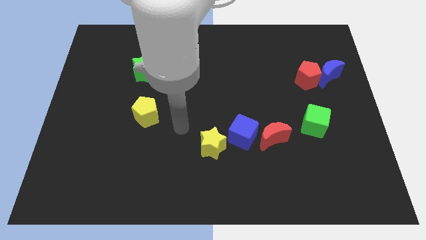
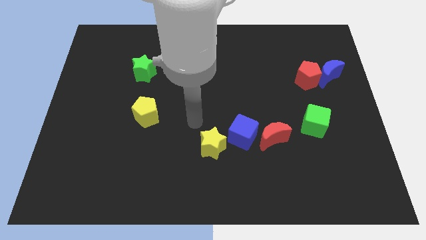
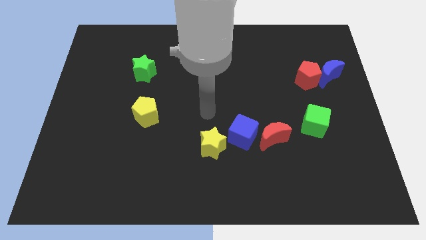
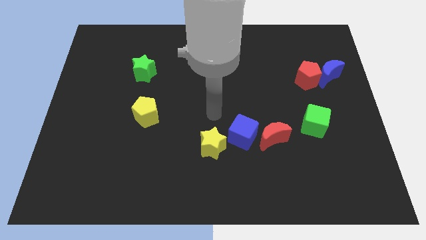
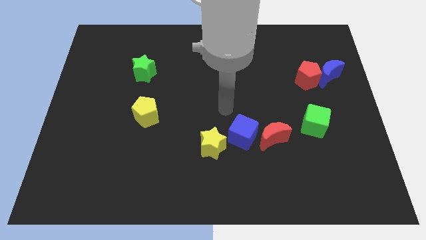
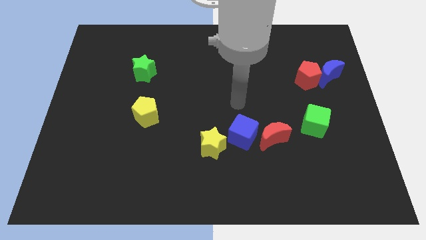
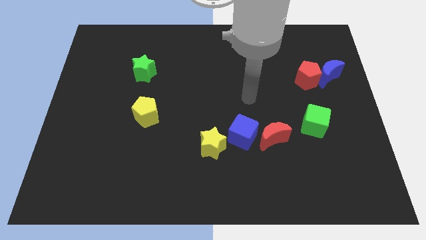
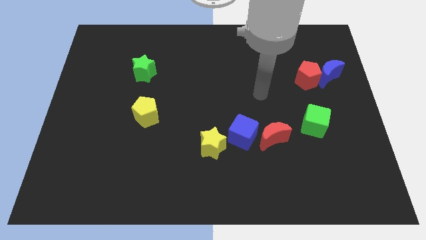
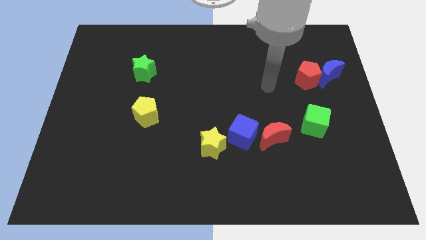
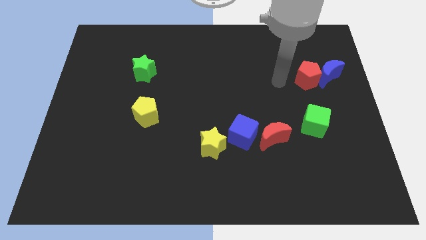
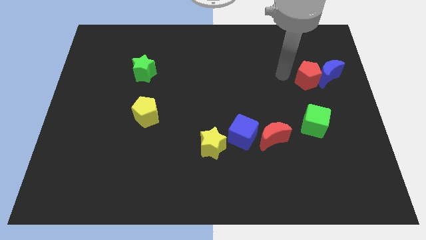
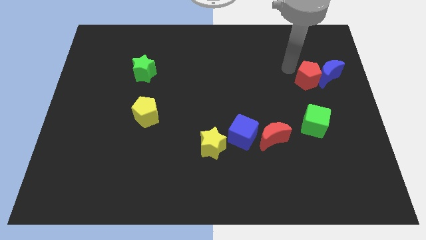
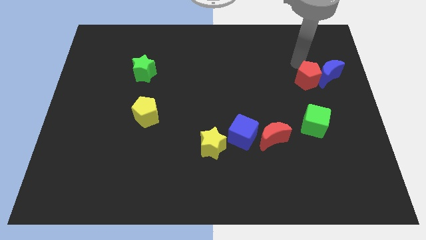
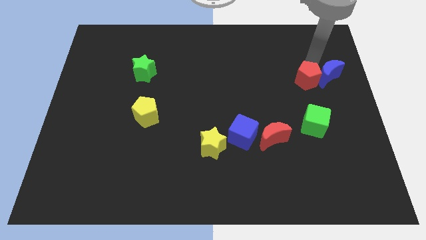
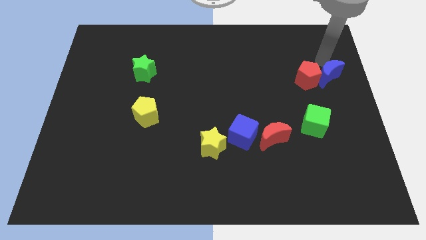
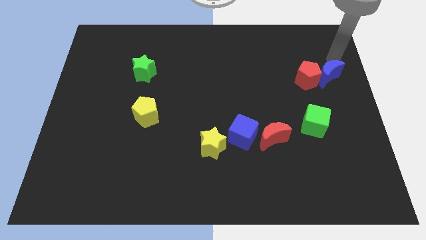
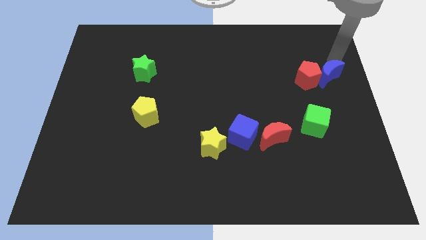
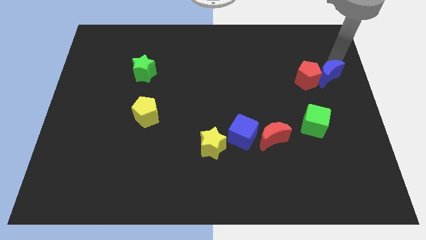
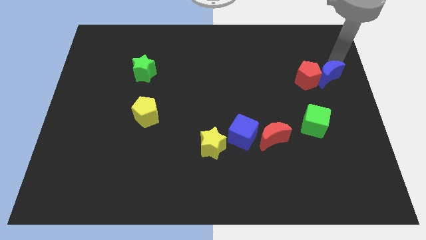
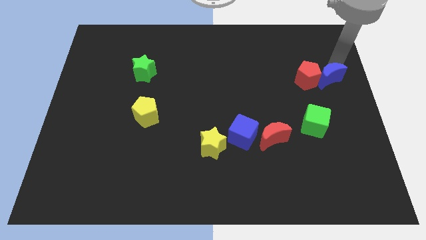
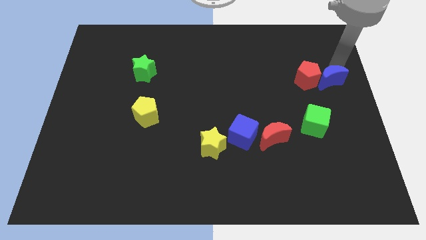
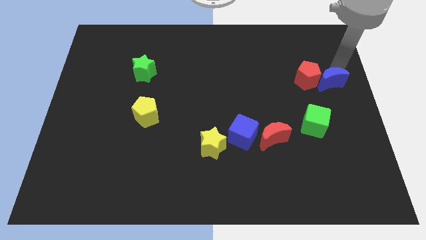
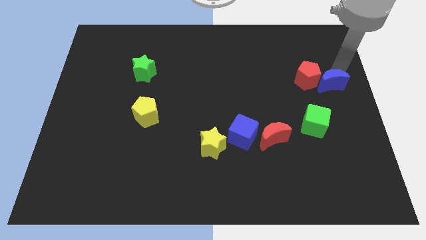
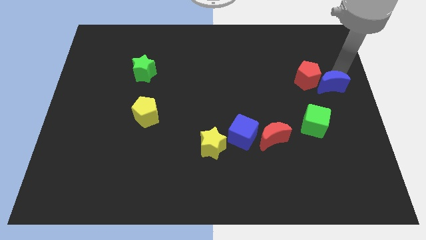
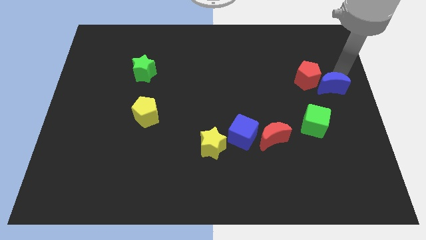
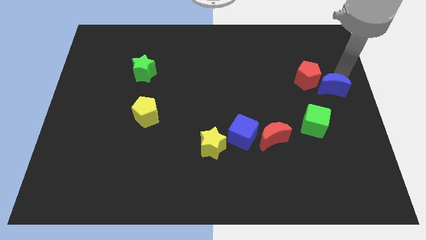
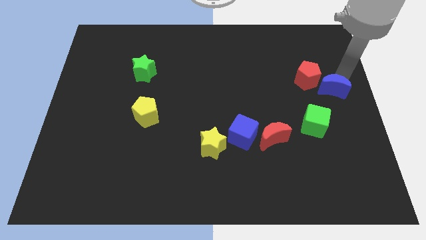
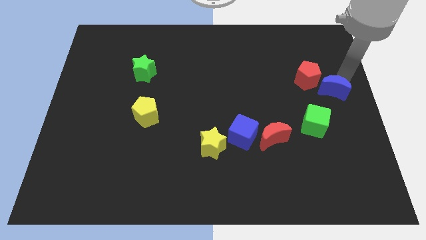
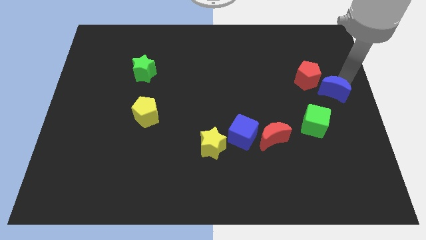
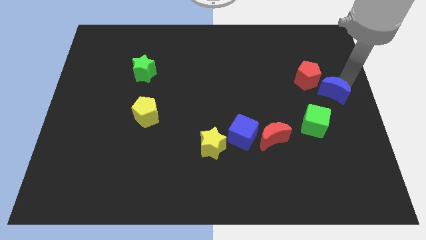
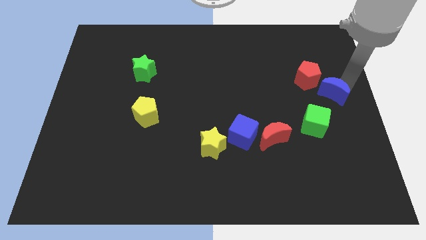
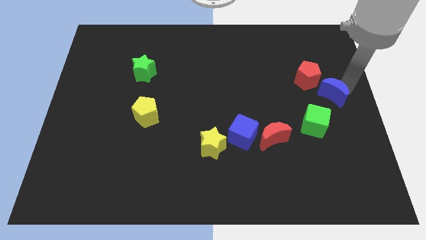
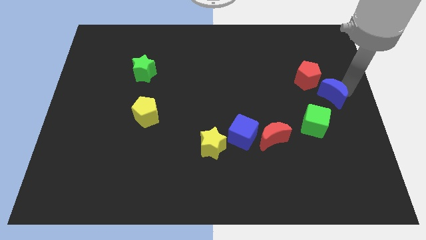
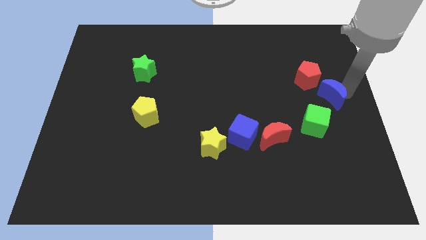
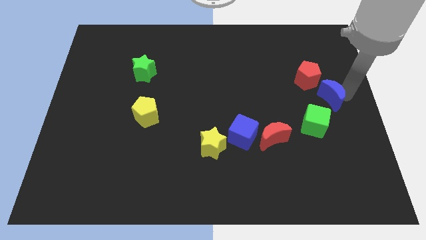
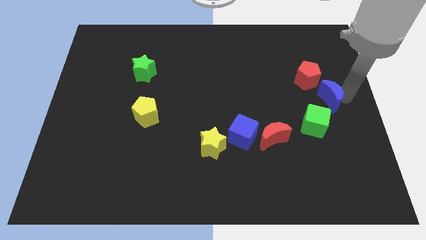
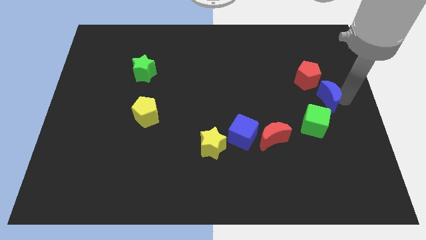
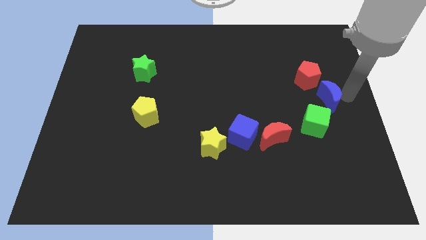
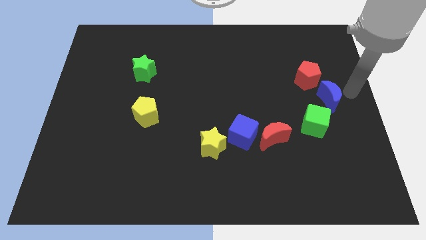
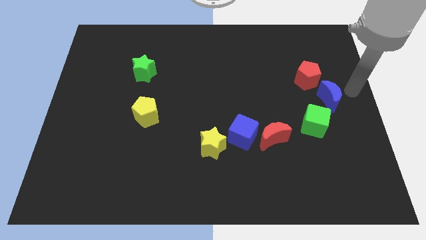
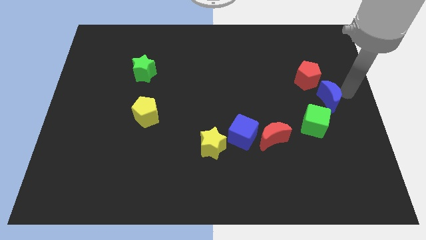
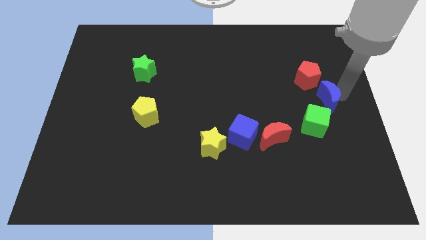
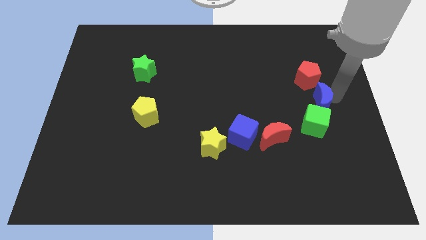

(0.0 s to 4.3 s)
slide the blue moon a little bit downwards and left

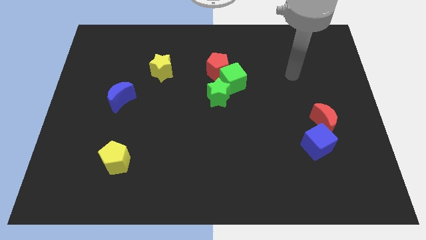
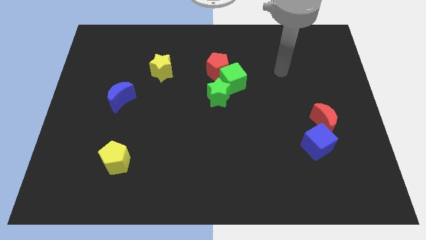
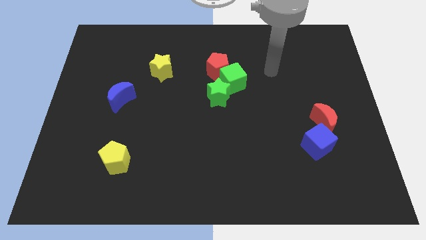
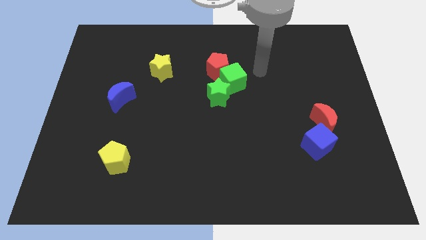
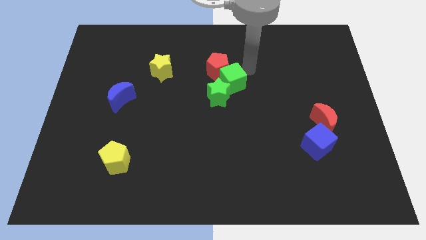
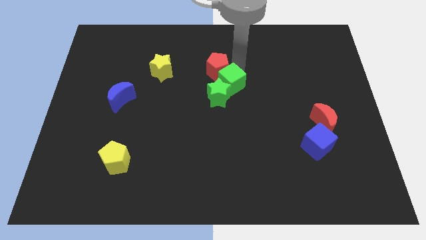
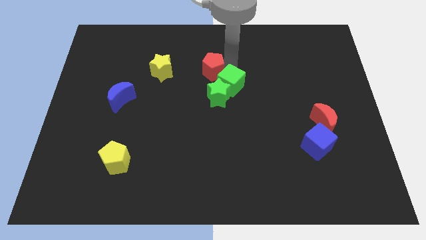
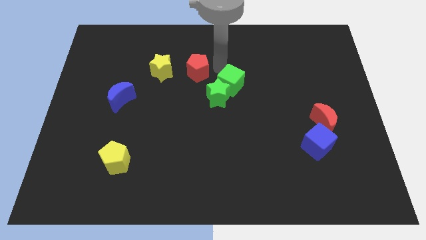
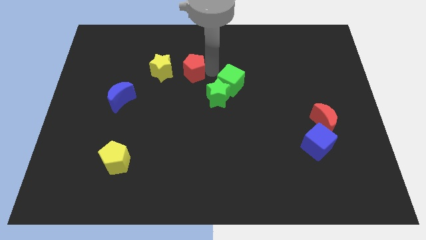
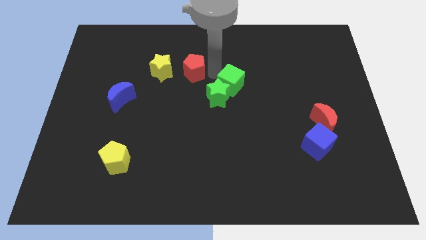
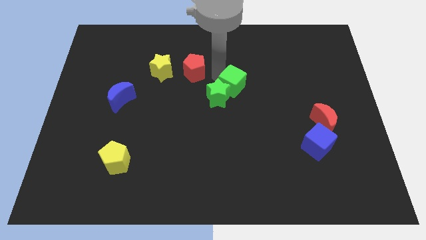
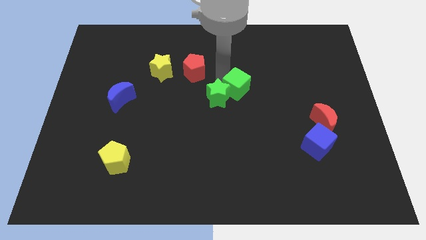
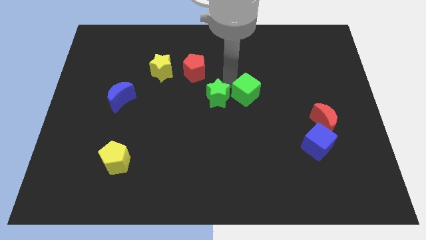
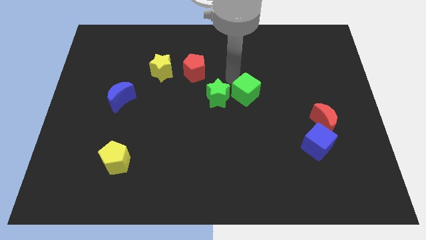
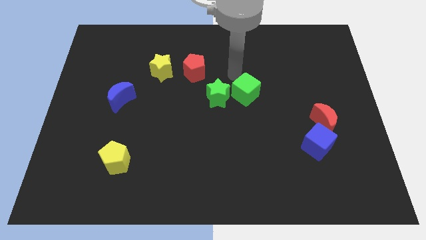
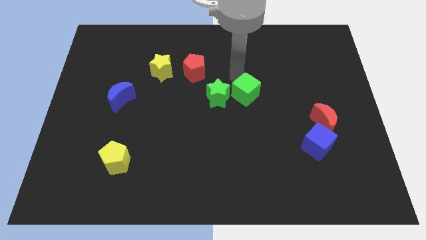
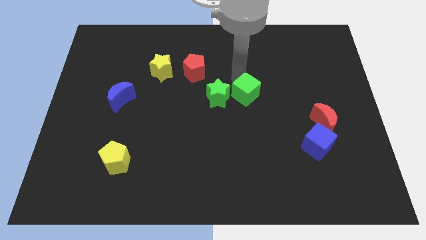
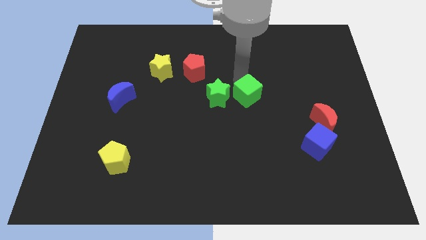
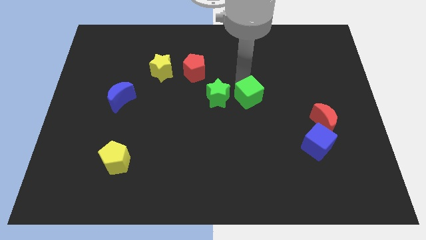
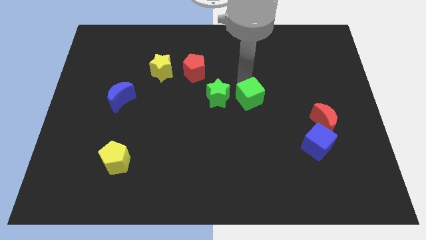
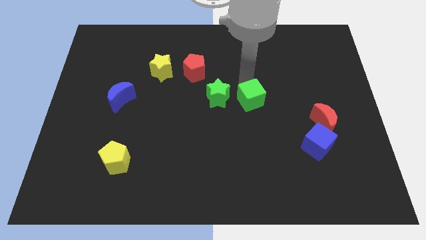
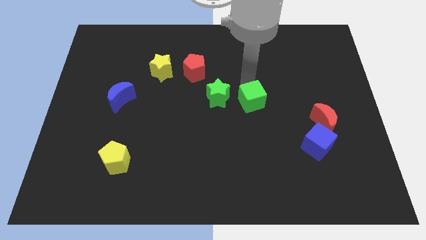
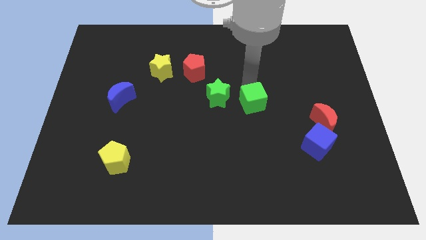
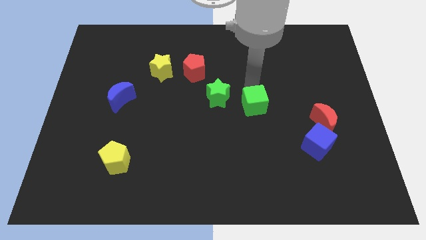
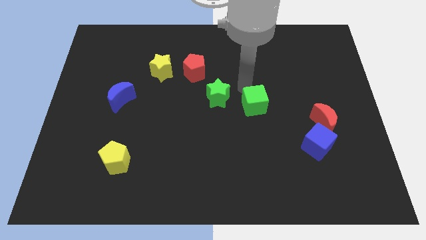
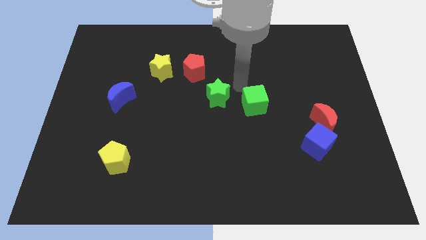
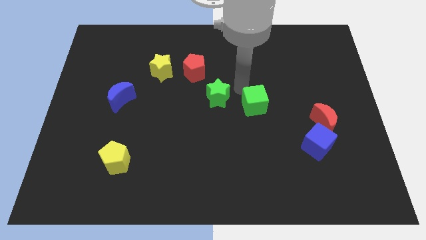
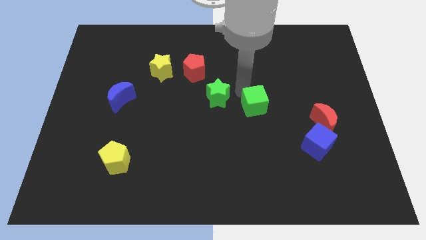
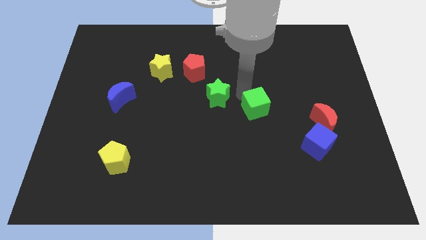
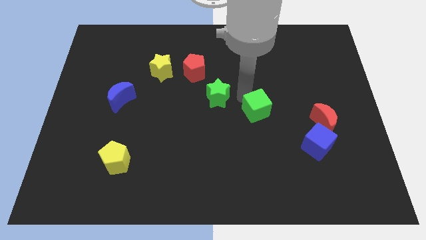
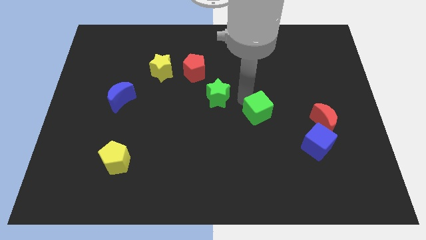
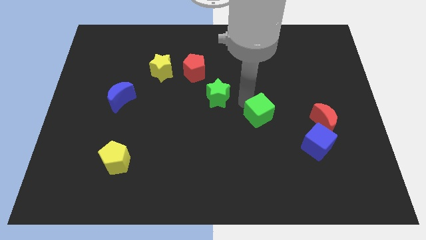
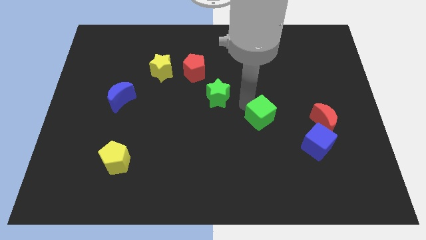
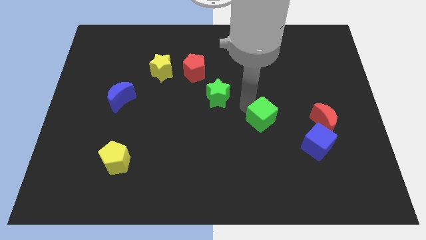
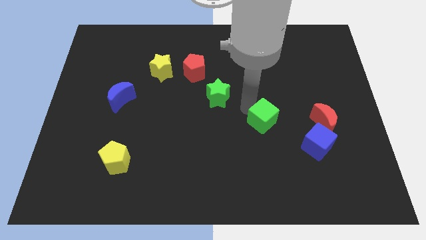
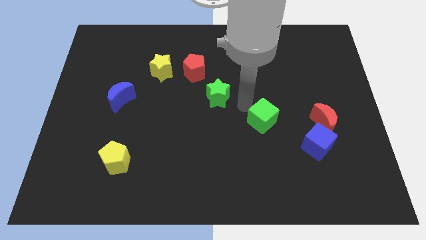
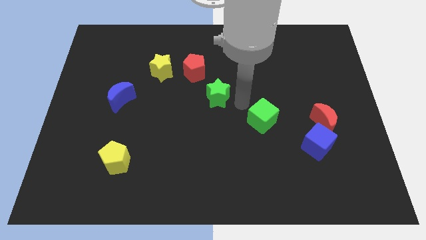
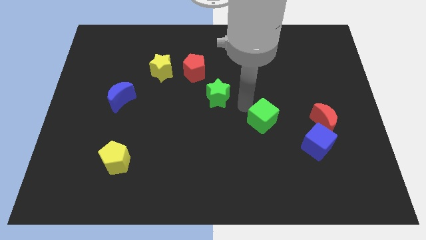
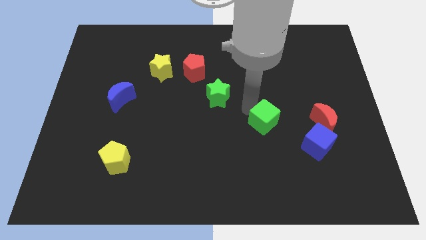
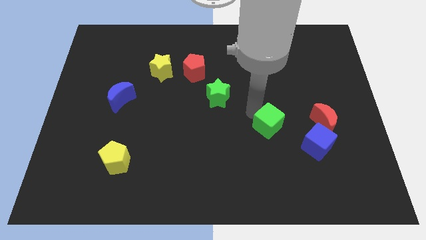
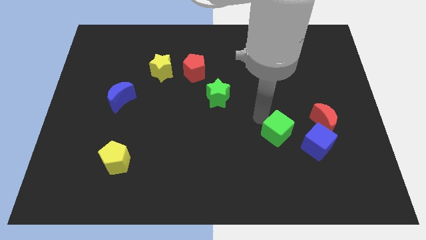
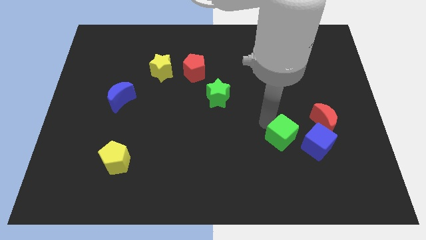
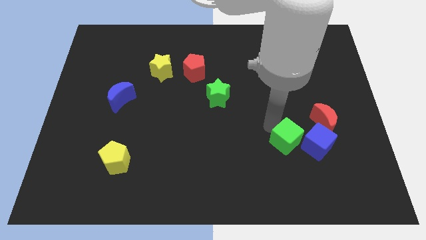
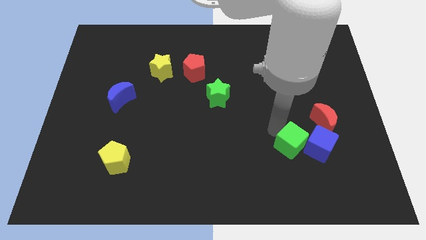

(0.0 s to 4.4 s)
push the green cube down and to the right
